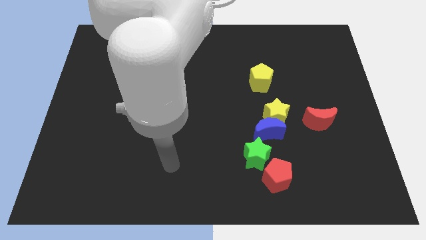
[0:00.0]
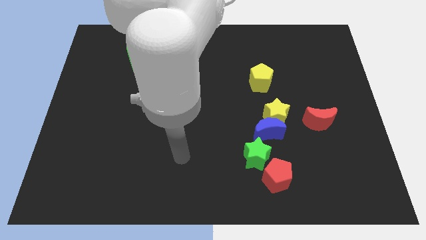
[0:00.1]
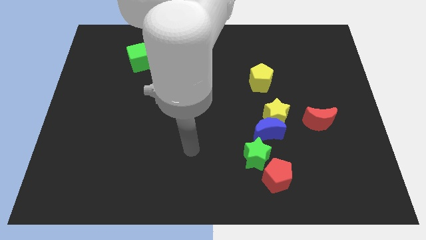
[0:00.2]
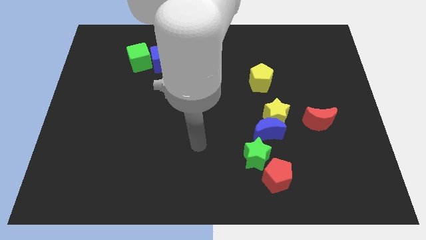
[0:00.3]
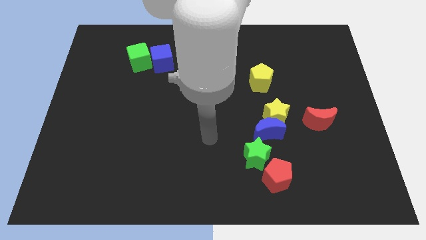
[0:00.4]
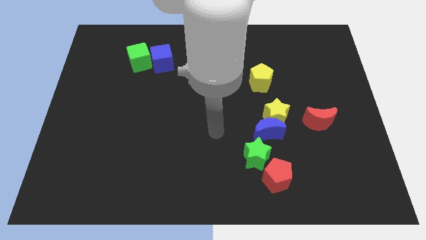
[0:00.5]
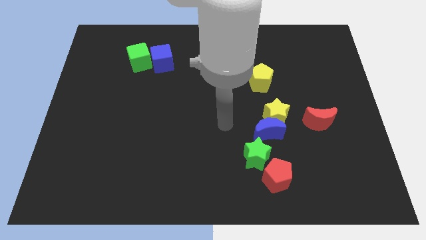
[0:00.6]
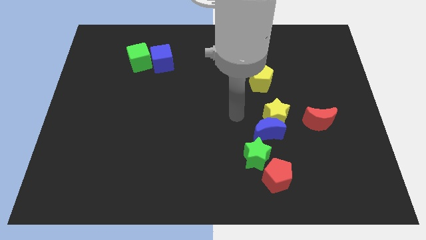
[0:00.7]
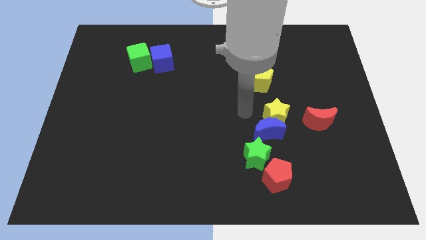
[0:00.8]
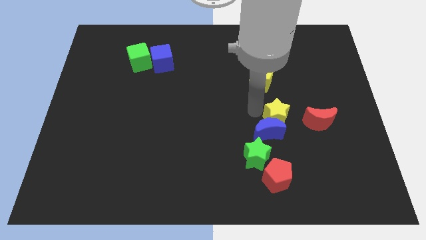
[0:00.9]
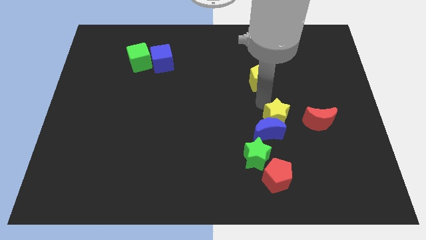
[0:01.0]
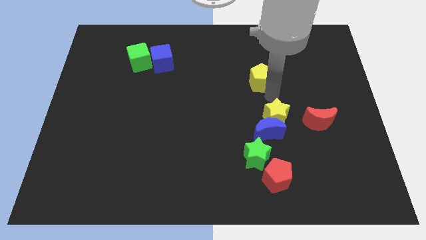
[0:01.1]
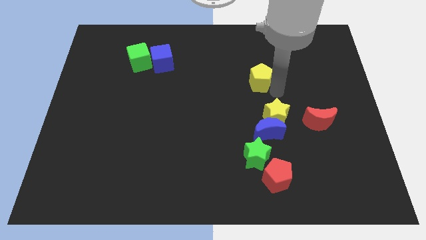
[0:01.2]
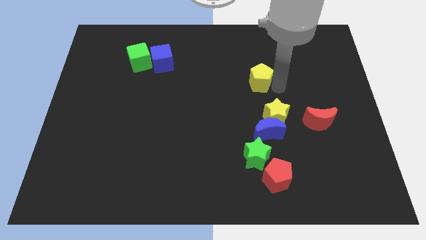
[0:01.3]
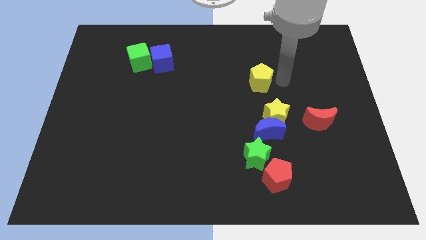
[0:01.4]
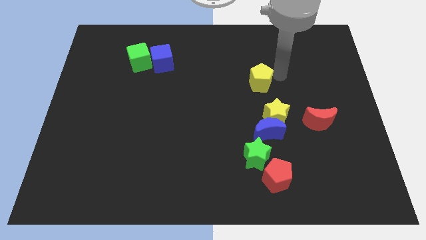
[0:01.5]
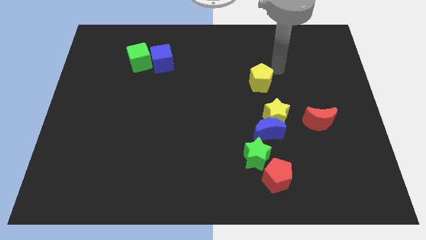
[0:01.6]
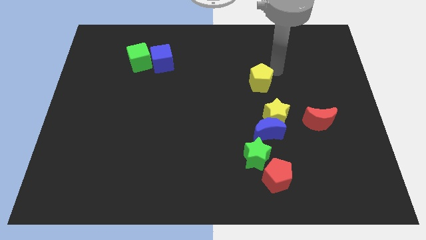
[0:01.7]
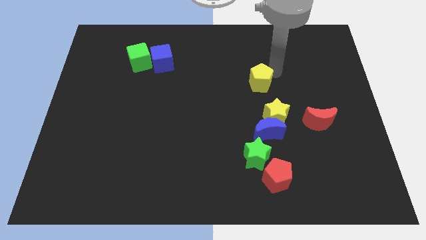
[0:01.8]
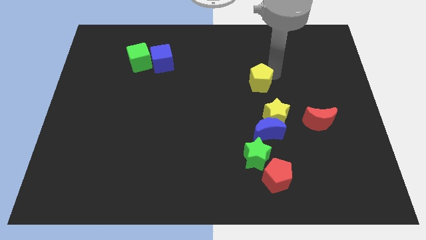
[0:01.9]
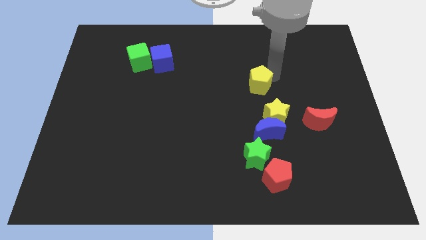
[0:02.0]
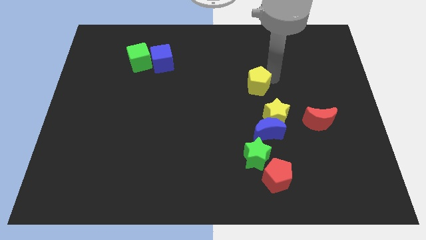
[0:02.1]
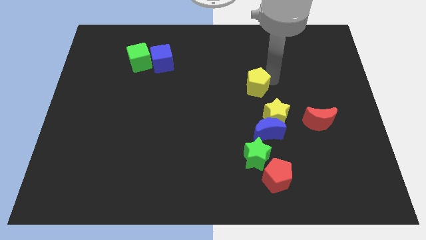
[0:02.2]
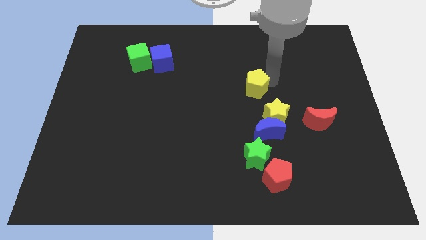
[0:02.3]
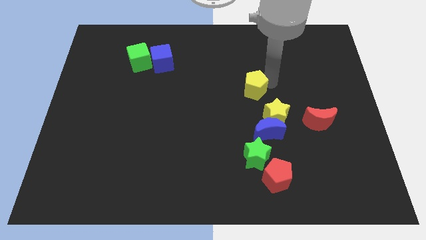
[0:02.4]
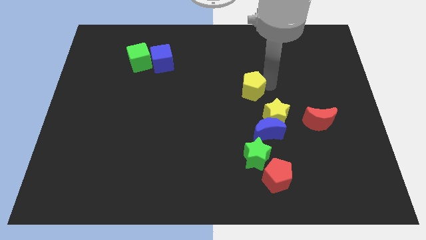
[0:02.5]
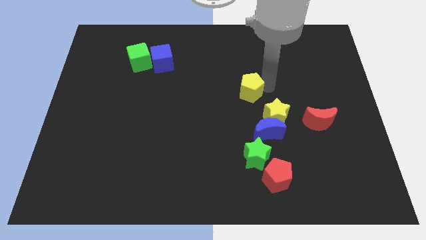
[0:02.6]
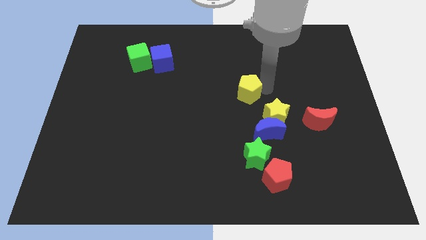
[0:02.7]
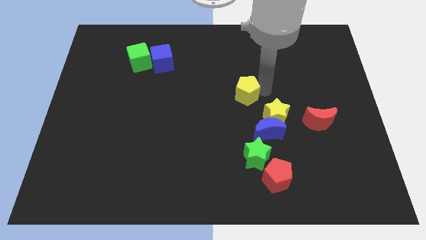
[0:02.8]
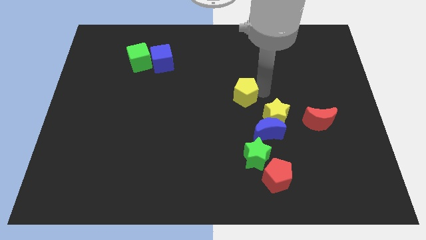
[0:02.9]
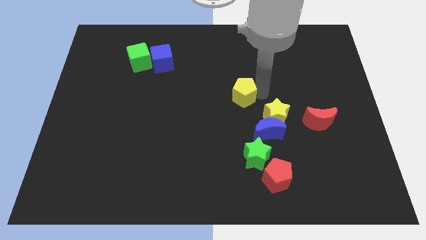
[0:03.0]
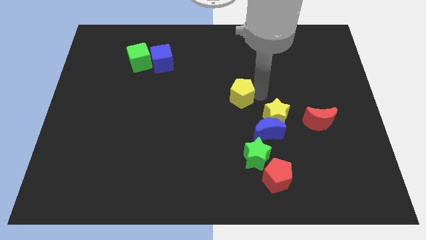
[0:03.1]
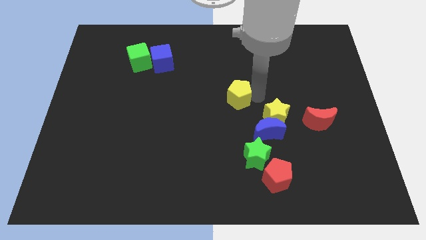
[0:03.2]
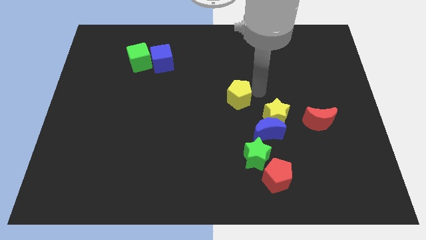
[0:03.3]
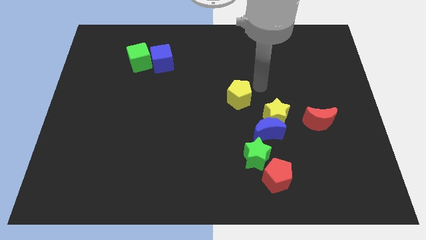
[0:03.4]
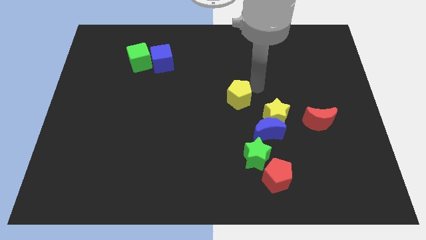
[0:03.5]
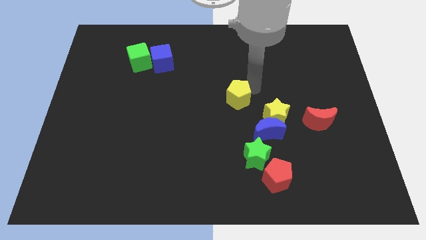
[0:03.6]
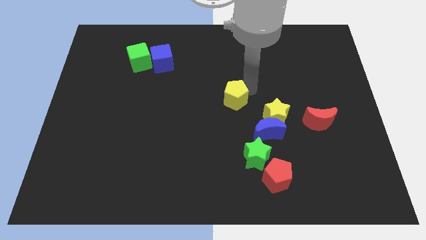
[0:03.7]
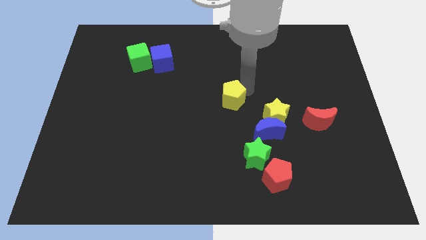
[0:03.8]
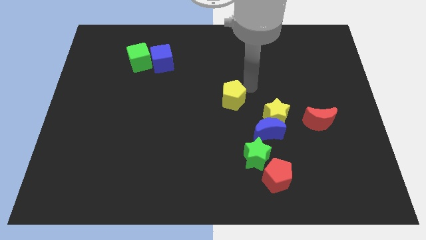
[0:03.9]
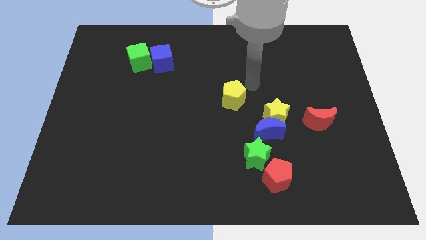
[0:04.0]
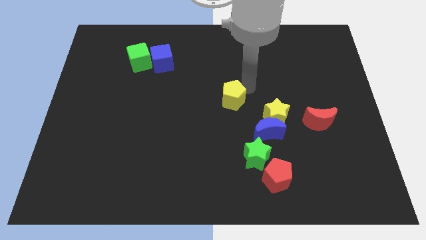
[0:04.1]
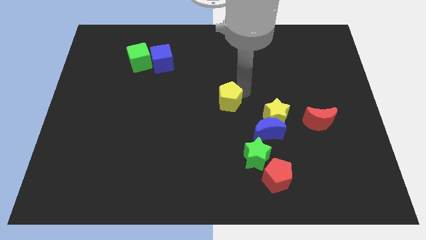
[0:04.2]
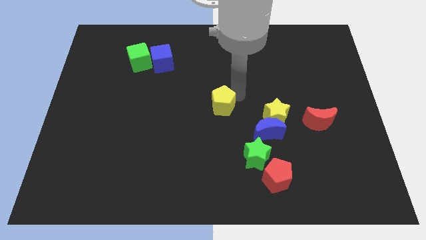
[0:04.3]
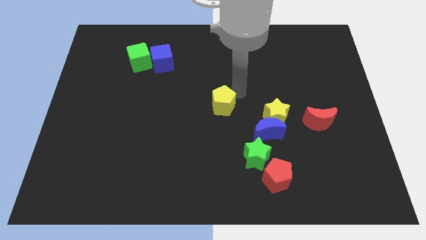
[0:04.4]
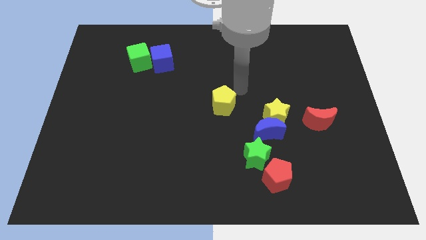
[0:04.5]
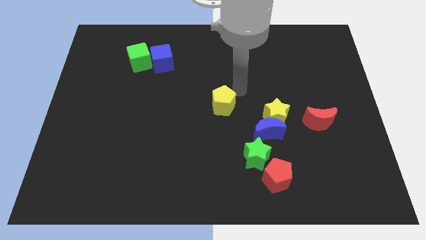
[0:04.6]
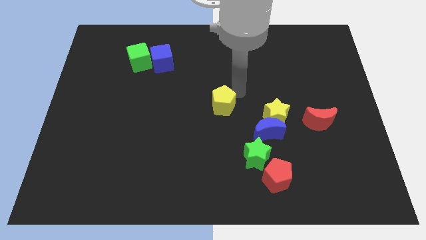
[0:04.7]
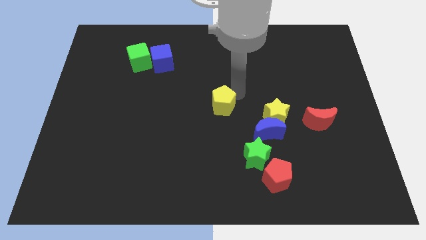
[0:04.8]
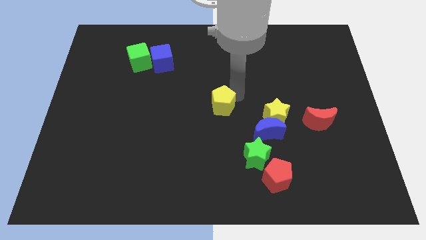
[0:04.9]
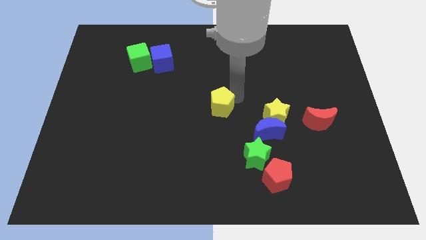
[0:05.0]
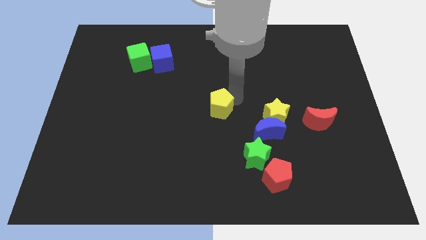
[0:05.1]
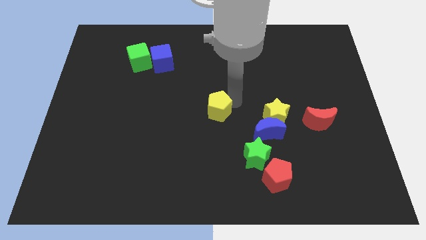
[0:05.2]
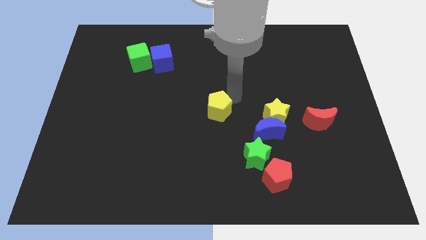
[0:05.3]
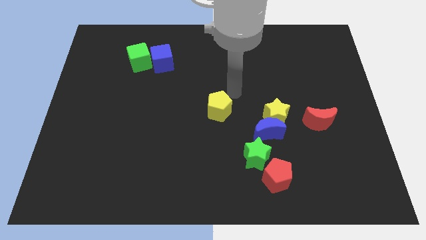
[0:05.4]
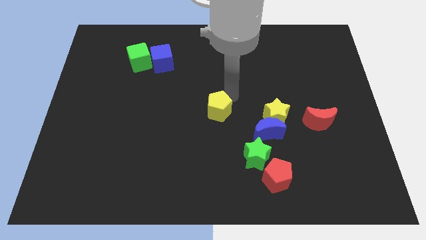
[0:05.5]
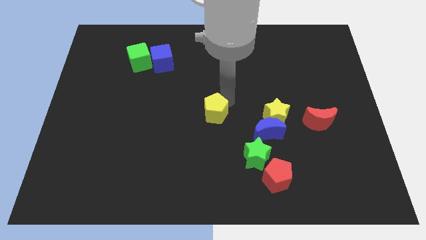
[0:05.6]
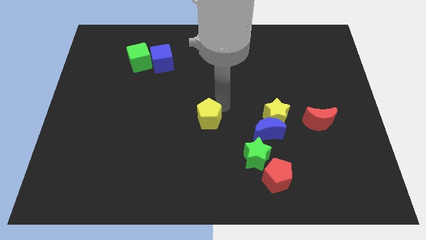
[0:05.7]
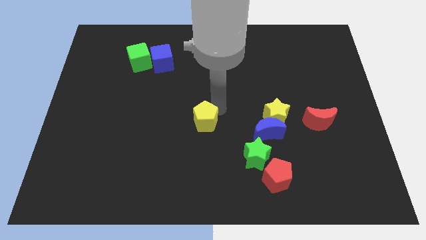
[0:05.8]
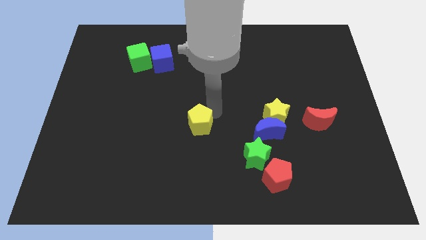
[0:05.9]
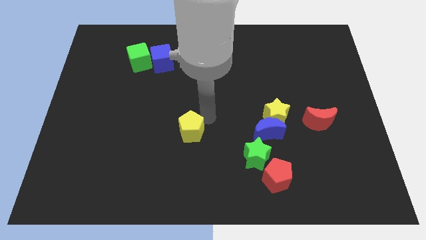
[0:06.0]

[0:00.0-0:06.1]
slide the yellow pentagon diagonally down and to the left

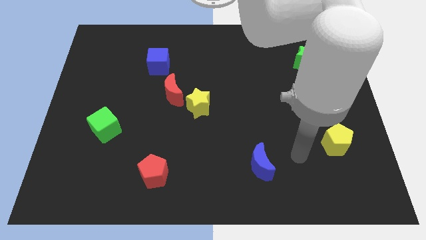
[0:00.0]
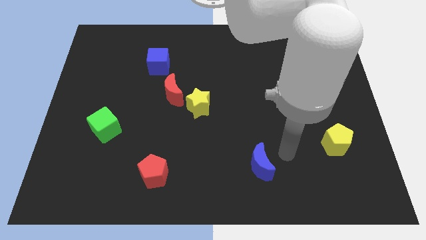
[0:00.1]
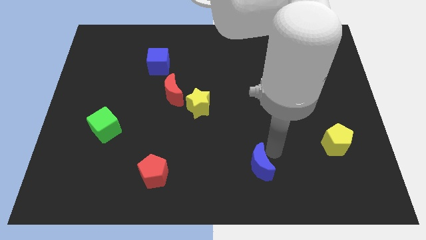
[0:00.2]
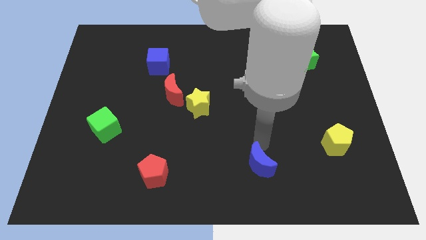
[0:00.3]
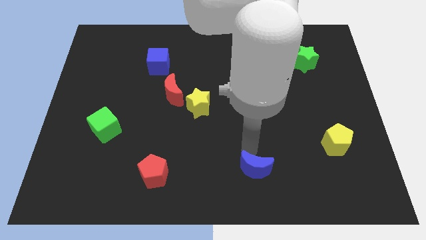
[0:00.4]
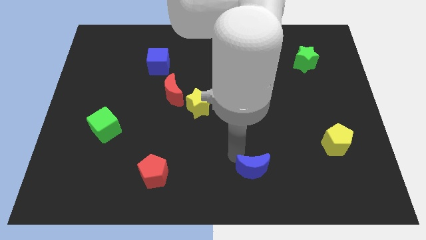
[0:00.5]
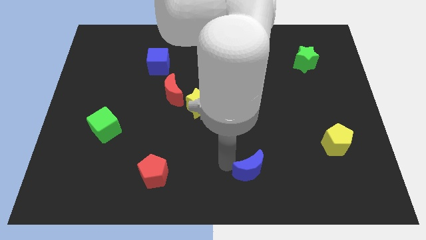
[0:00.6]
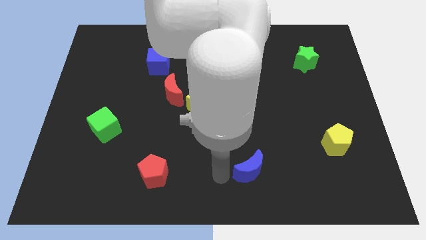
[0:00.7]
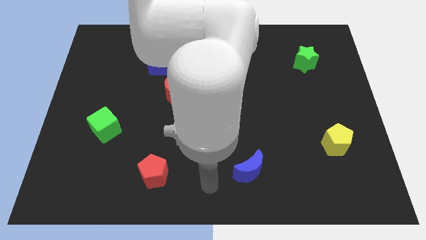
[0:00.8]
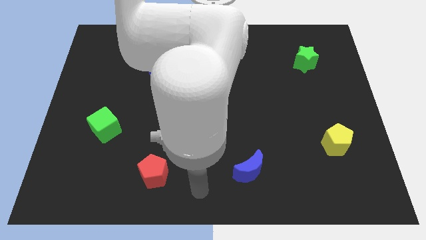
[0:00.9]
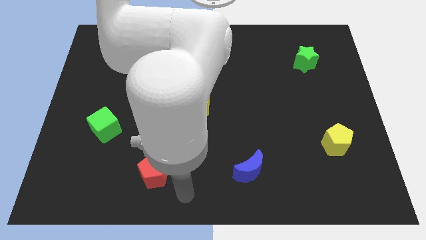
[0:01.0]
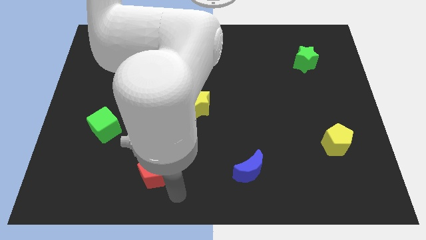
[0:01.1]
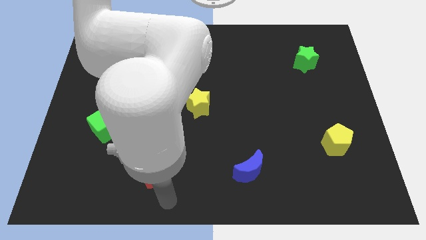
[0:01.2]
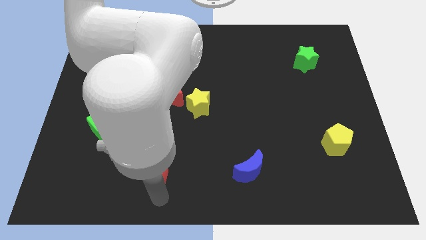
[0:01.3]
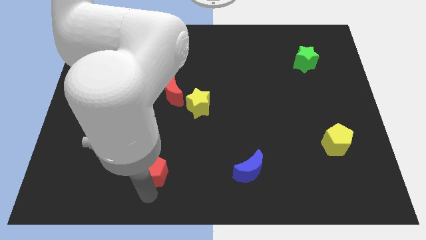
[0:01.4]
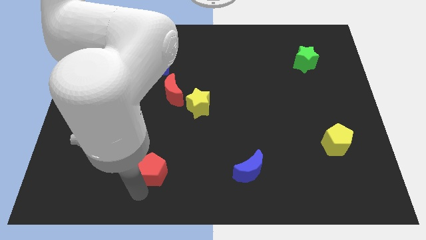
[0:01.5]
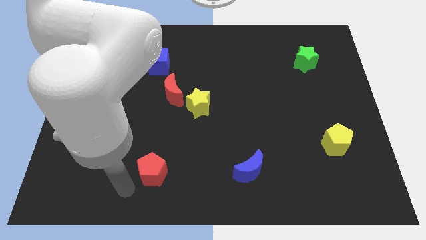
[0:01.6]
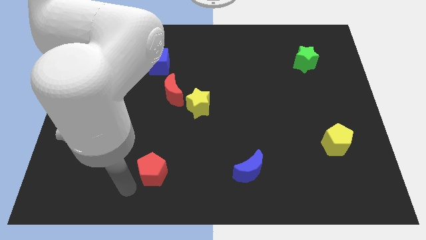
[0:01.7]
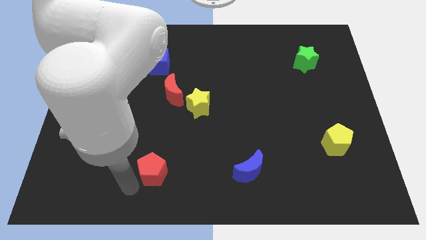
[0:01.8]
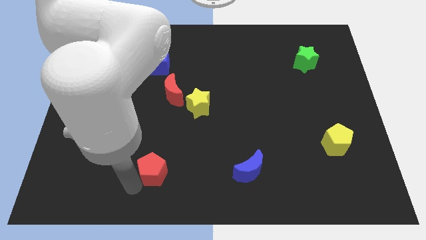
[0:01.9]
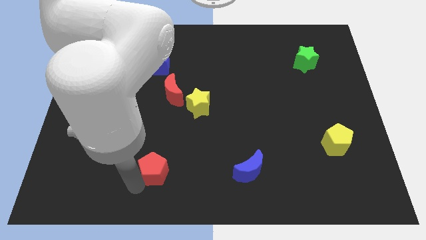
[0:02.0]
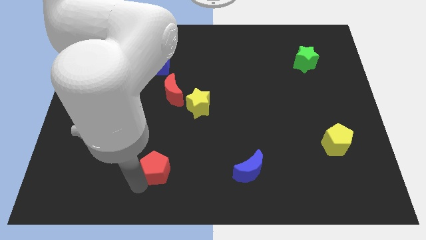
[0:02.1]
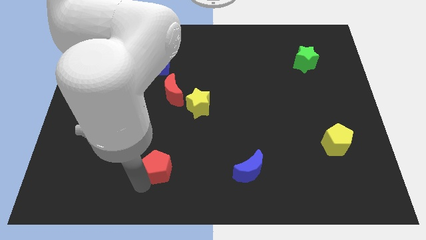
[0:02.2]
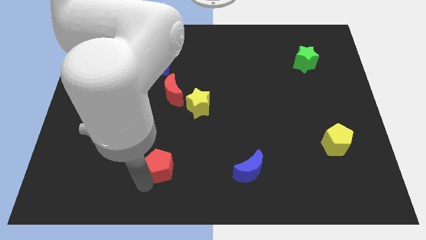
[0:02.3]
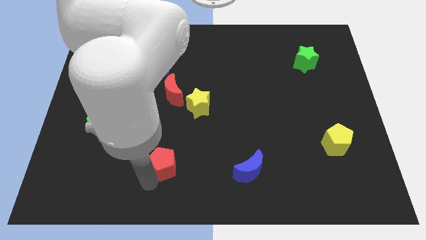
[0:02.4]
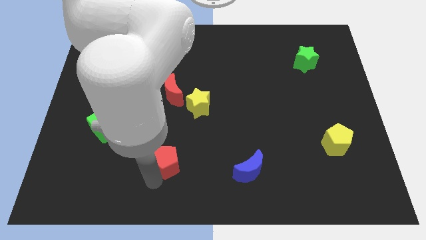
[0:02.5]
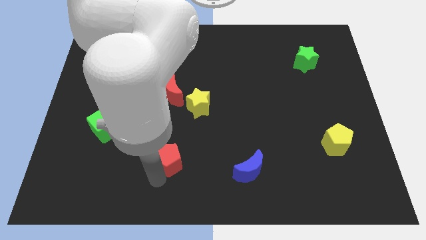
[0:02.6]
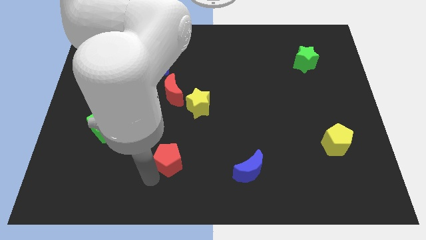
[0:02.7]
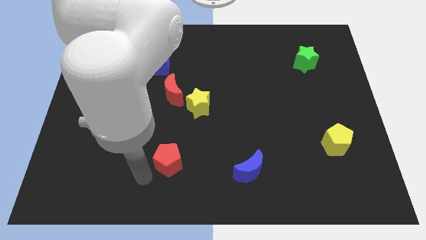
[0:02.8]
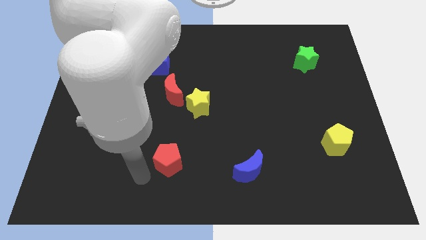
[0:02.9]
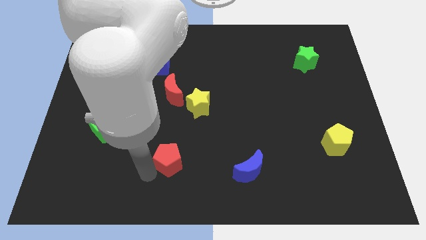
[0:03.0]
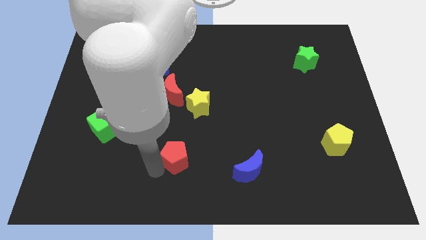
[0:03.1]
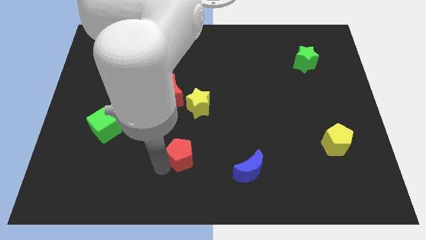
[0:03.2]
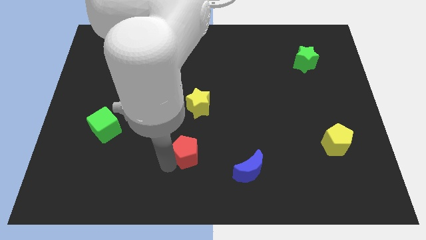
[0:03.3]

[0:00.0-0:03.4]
slightly move the red pentagon up and to the right diagonally
